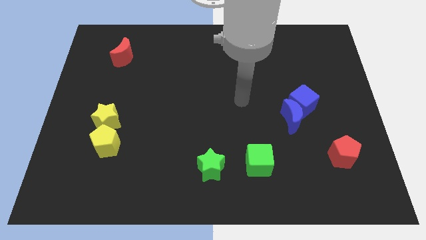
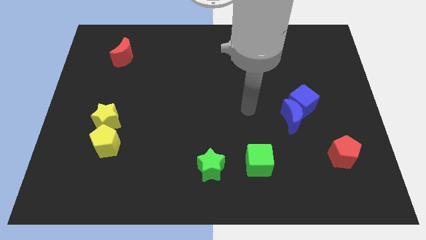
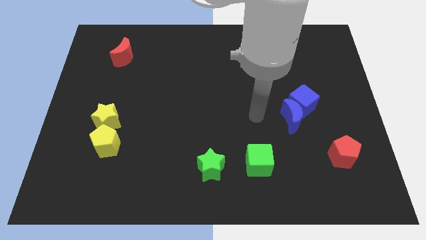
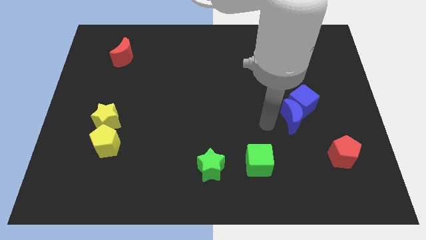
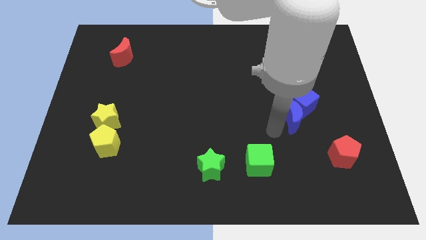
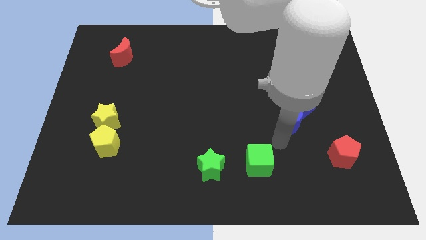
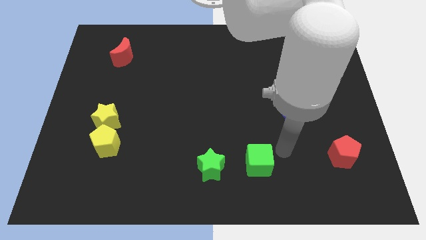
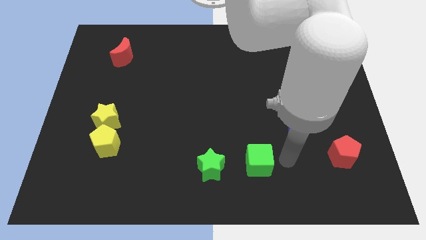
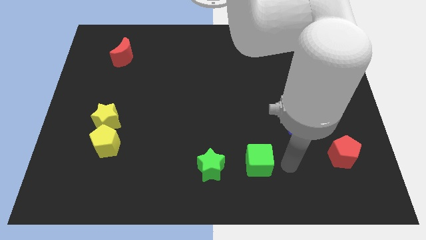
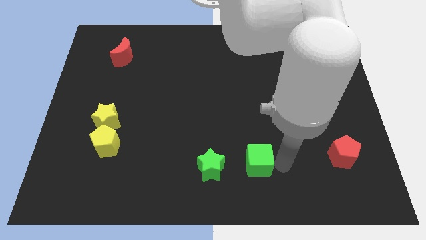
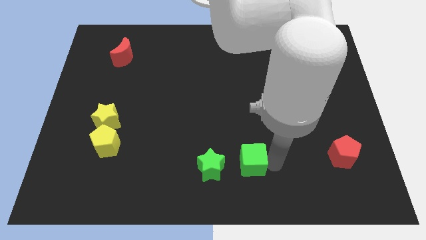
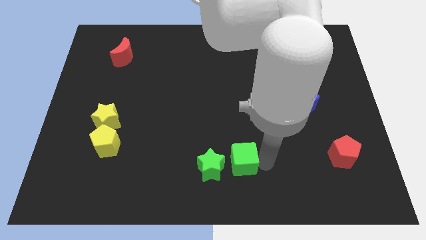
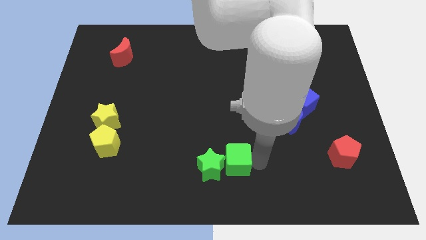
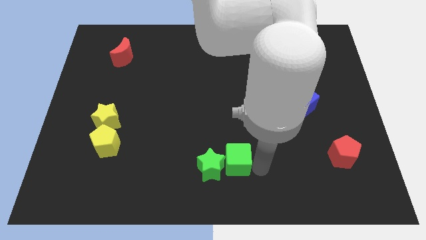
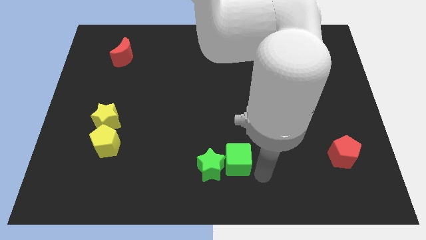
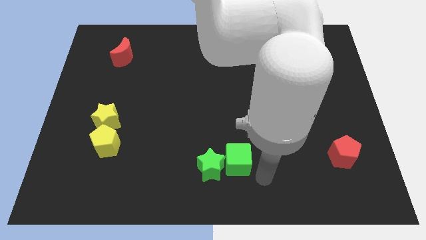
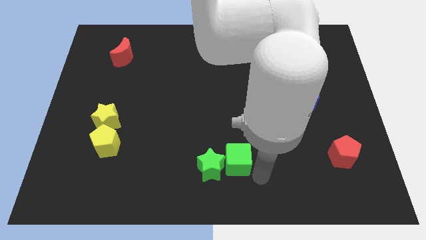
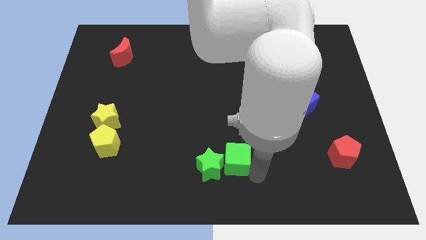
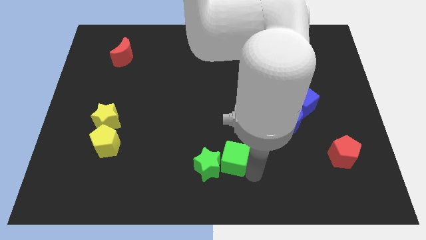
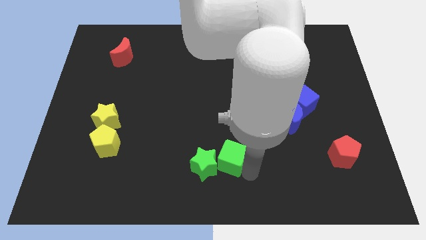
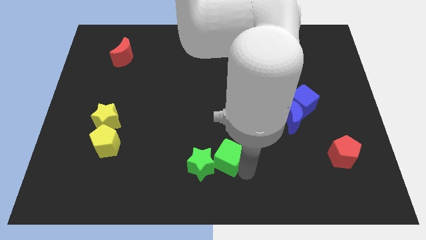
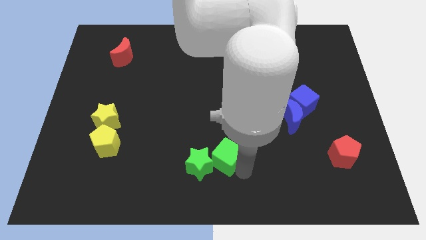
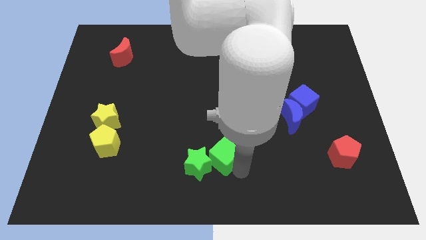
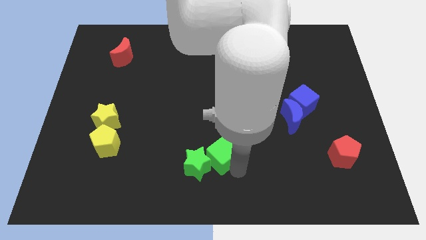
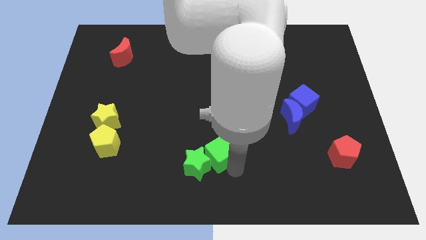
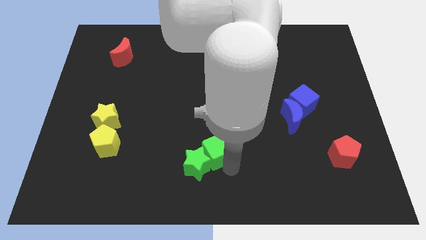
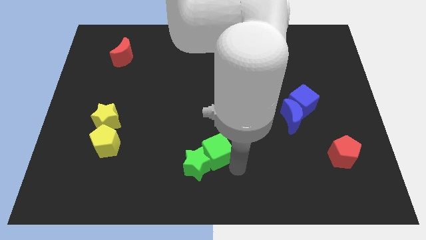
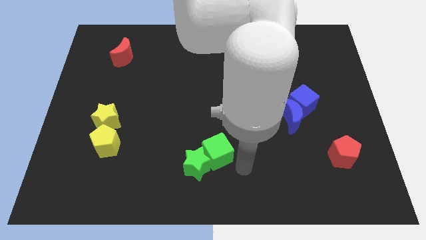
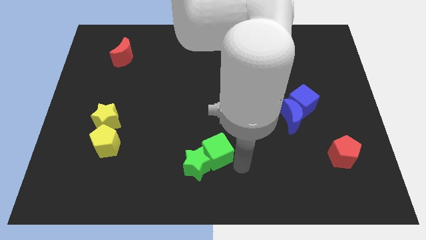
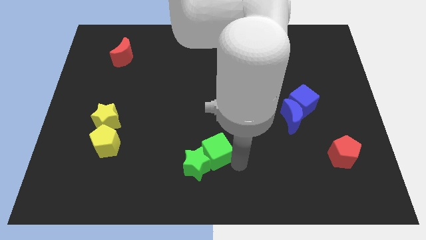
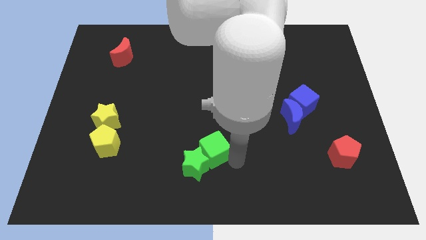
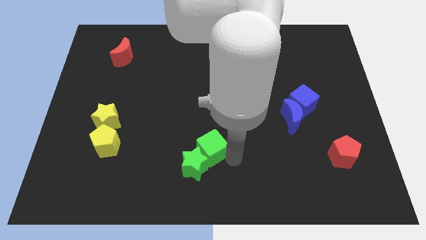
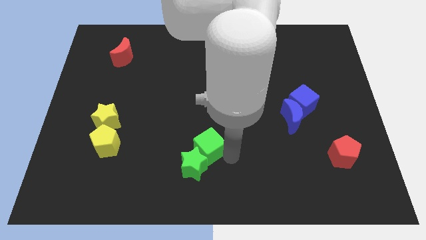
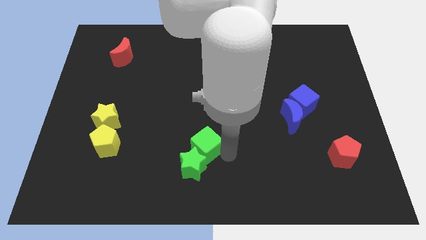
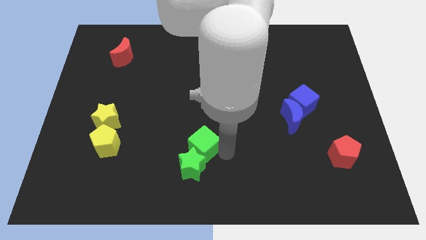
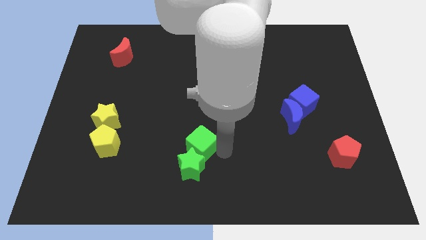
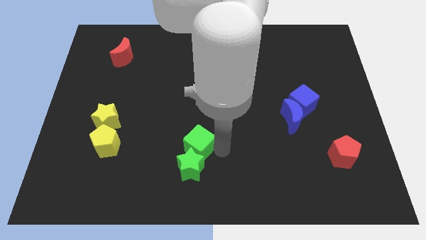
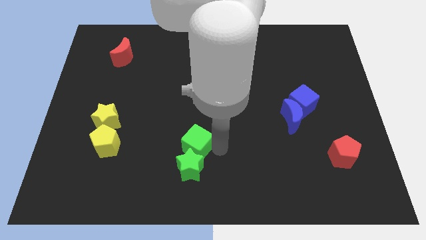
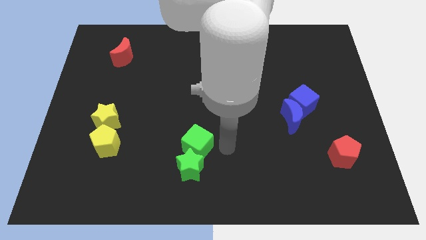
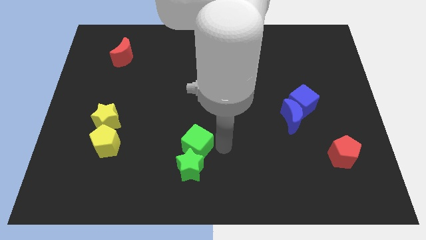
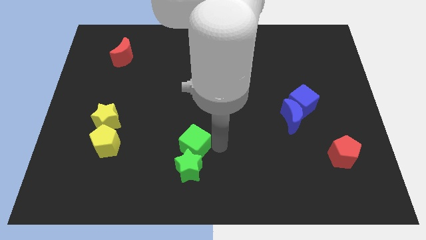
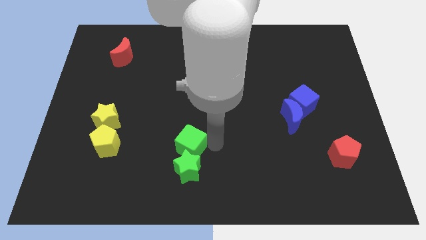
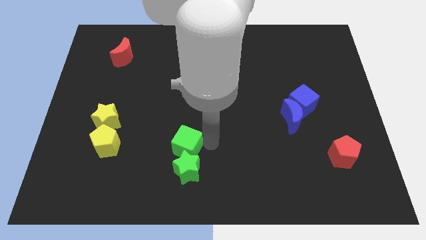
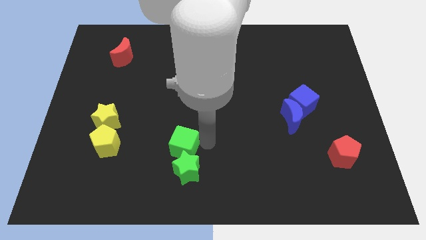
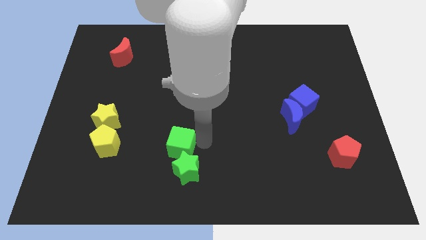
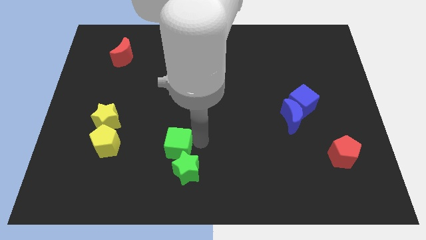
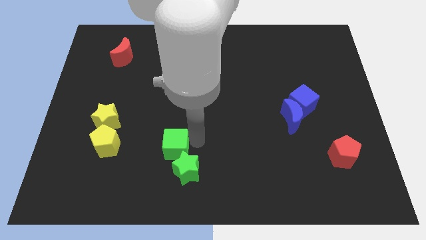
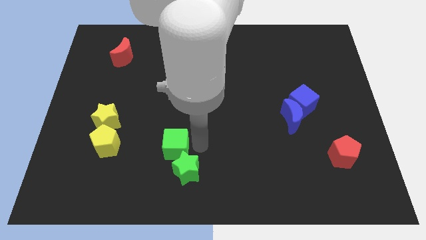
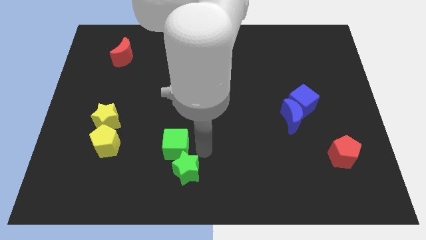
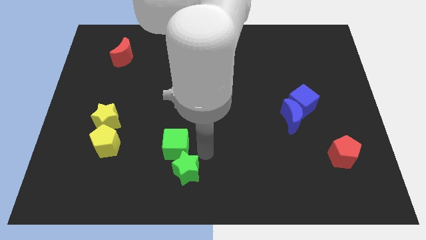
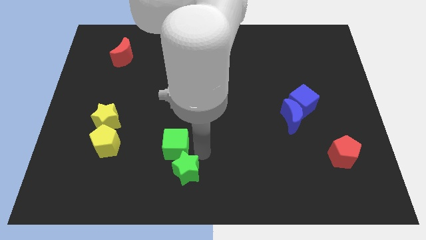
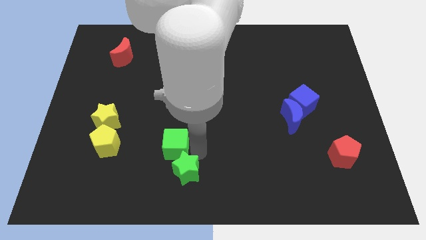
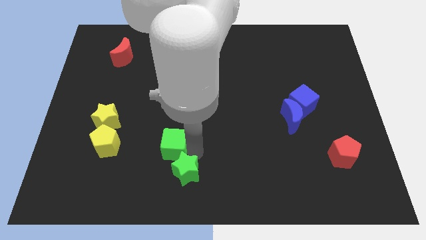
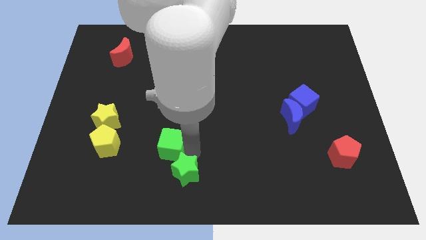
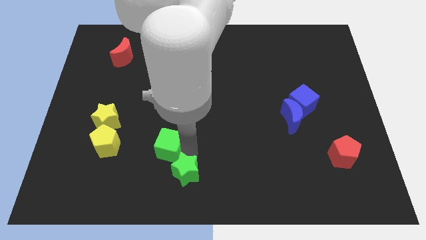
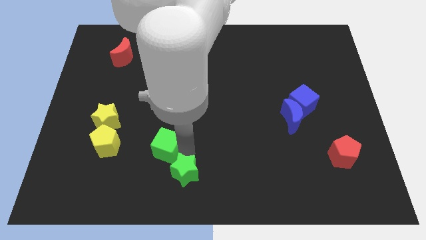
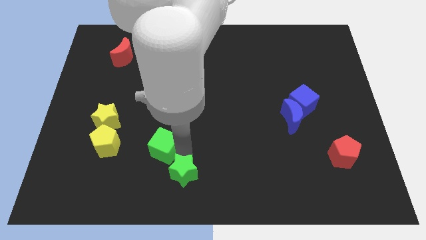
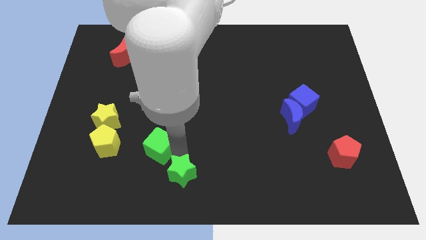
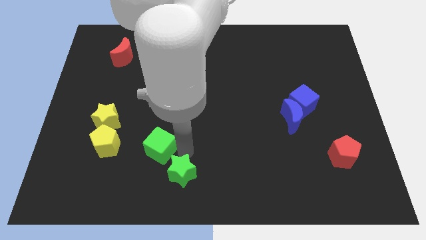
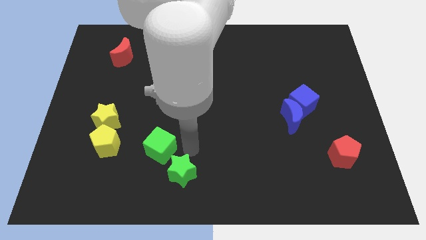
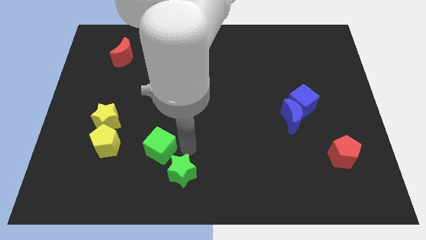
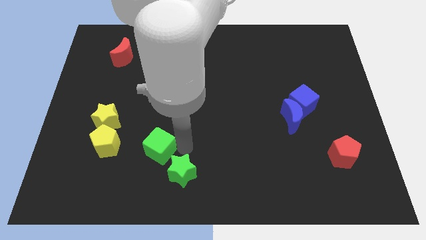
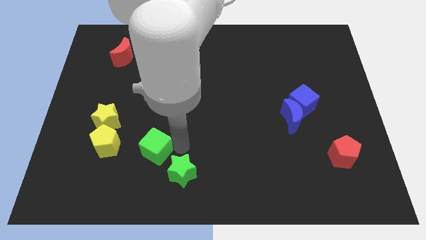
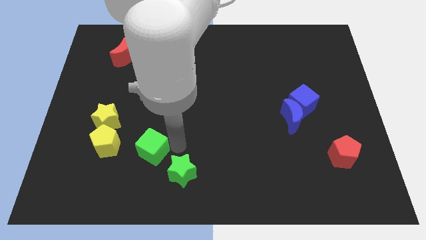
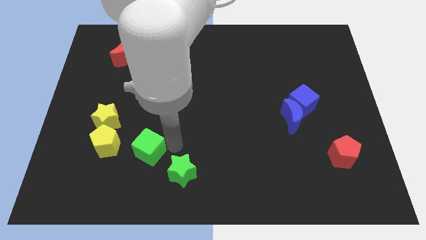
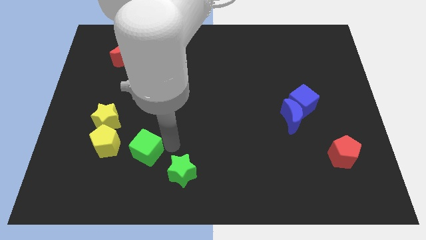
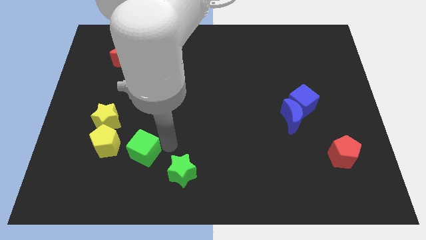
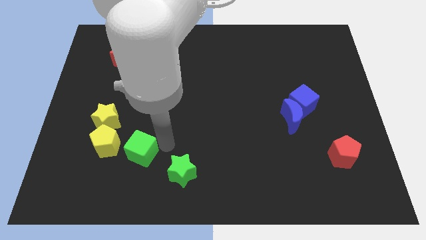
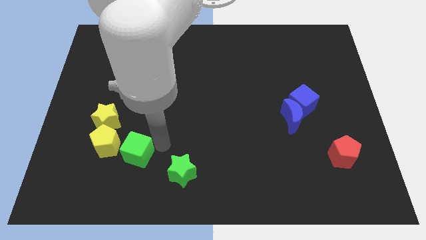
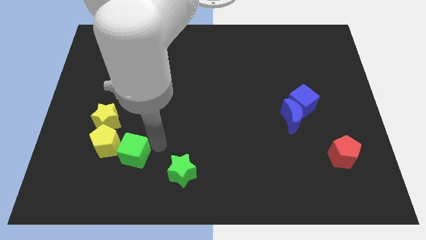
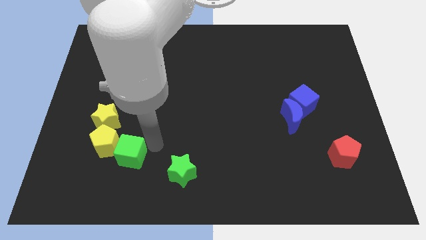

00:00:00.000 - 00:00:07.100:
put the green cube to the yellow pentagon
